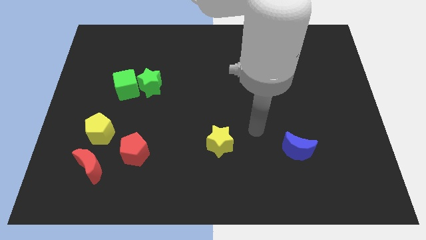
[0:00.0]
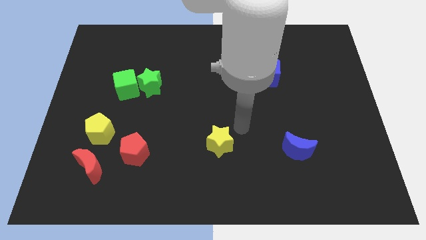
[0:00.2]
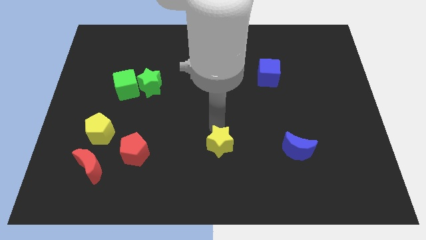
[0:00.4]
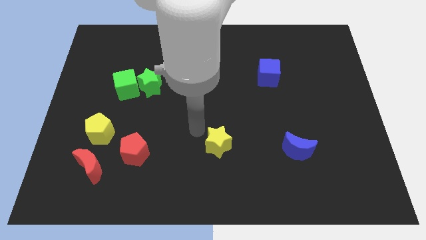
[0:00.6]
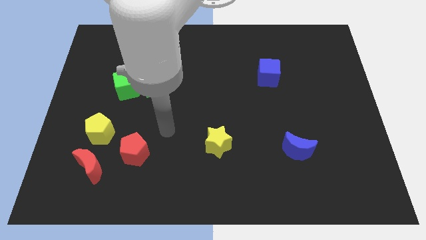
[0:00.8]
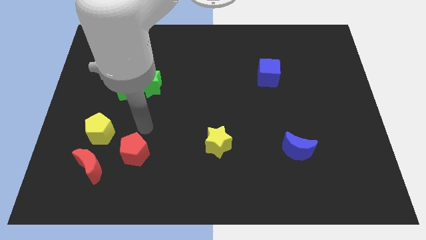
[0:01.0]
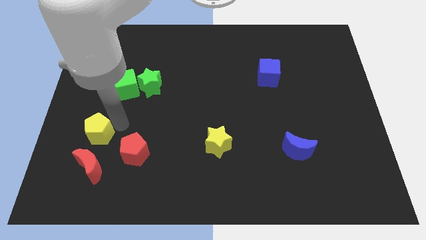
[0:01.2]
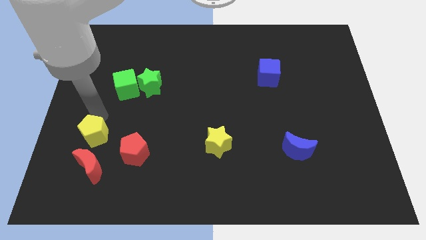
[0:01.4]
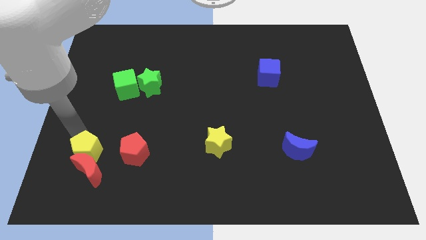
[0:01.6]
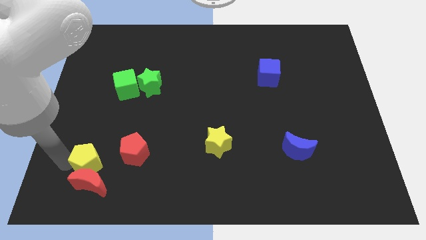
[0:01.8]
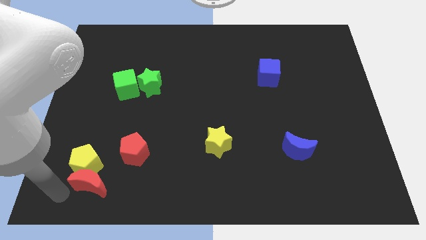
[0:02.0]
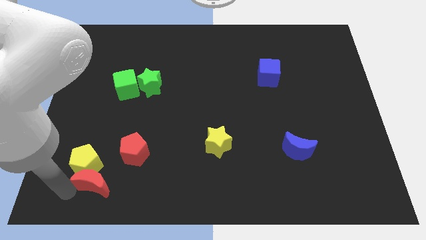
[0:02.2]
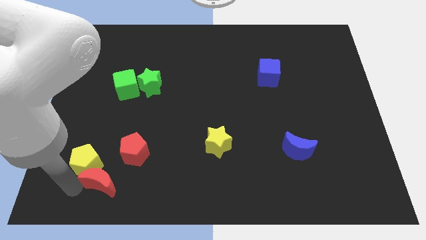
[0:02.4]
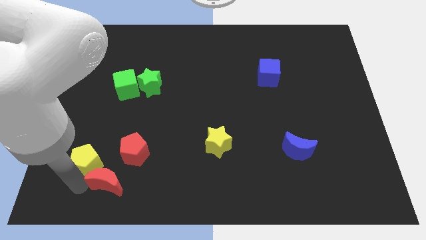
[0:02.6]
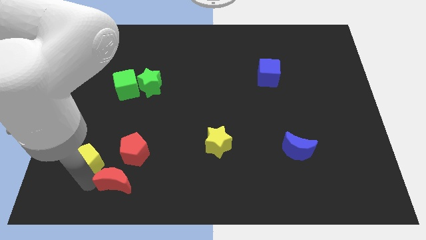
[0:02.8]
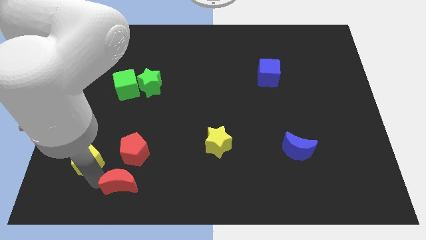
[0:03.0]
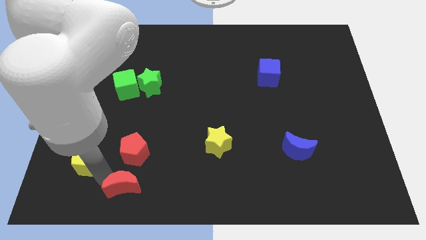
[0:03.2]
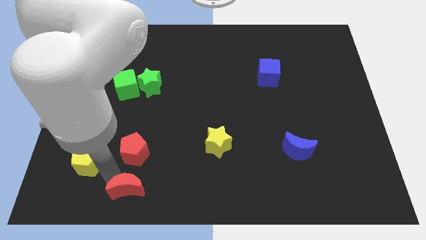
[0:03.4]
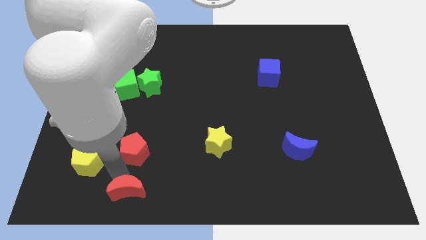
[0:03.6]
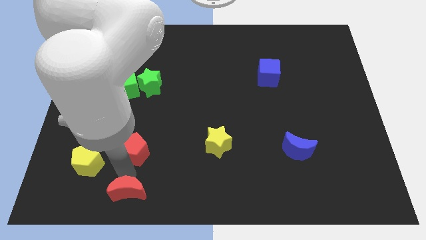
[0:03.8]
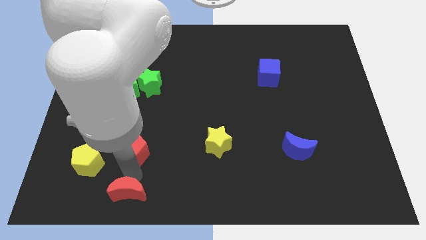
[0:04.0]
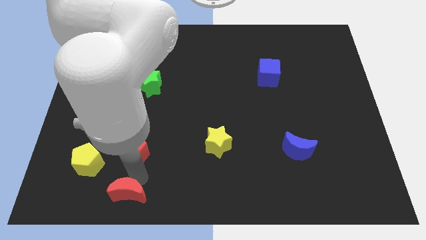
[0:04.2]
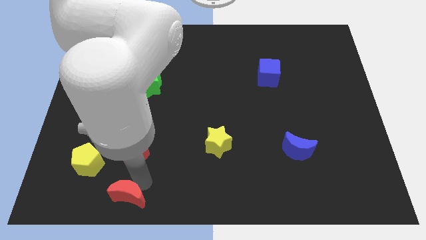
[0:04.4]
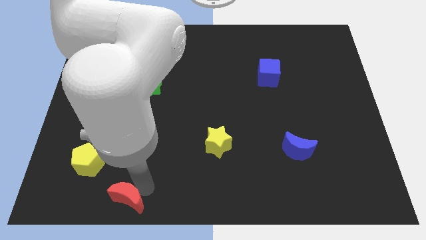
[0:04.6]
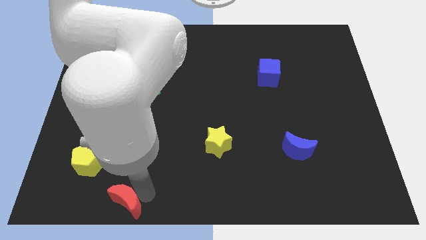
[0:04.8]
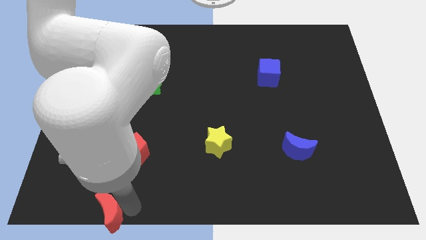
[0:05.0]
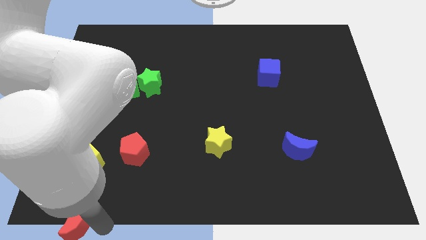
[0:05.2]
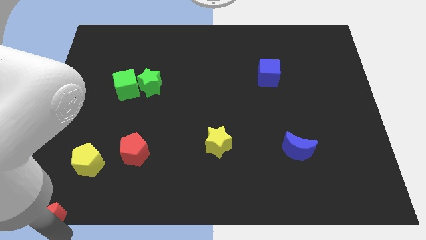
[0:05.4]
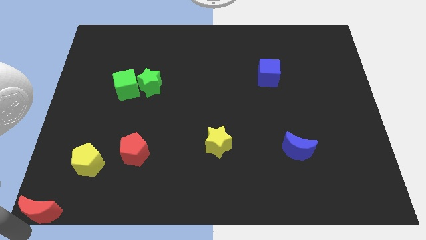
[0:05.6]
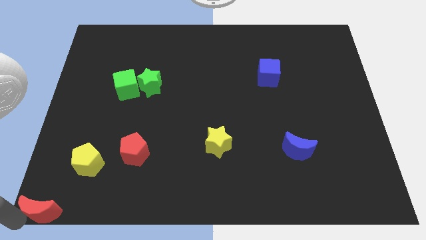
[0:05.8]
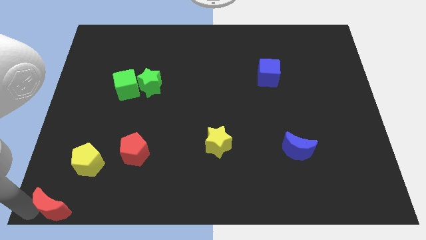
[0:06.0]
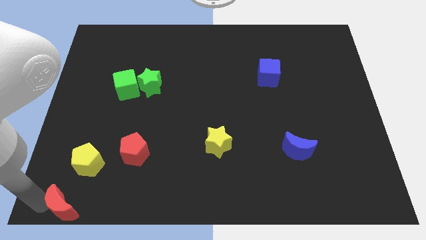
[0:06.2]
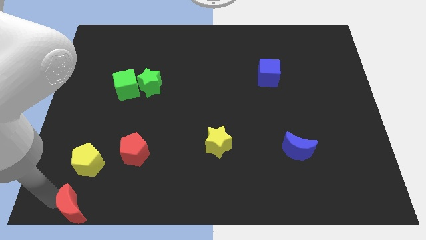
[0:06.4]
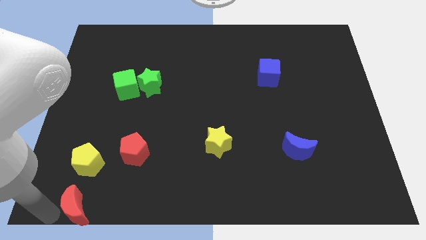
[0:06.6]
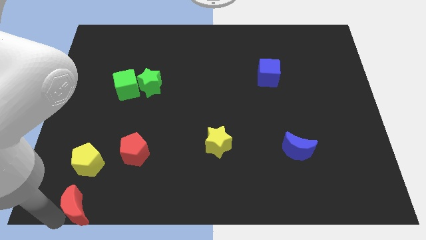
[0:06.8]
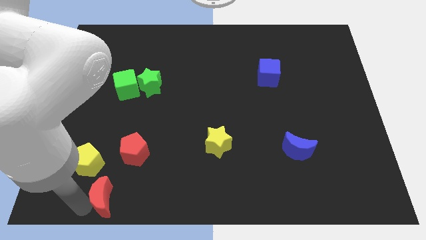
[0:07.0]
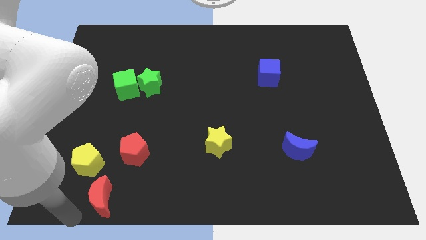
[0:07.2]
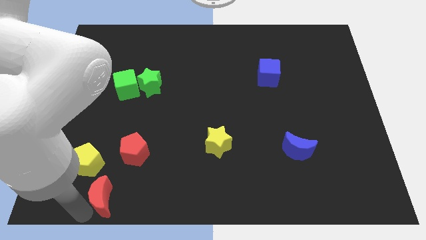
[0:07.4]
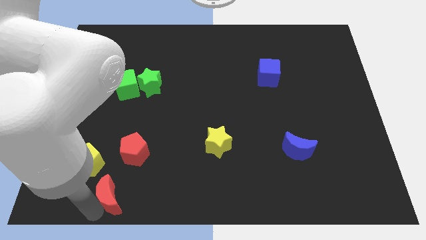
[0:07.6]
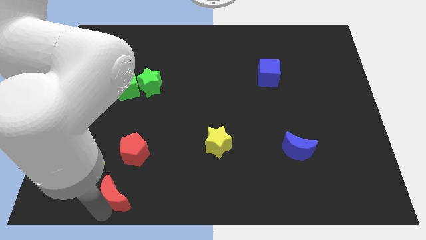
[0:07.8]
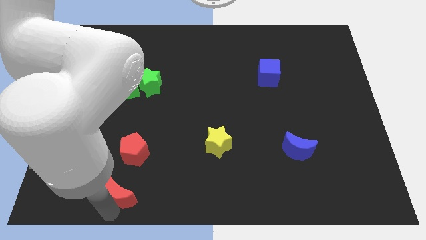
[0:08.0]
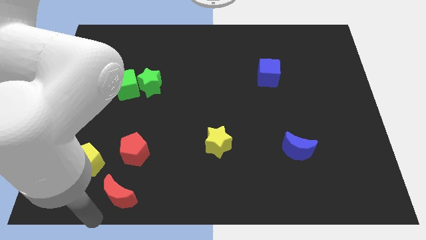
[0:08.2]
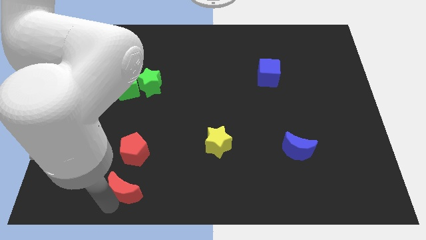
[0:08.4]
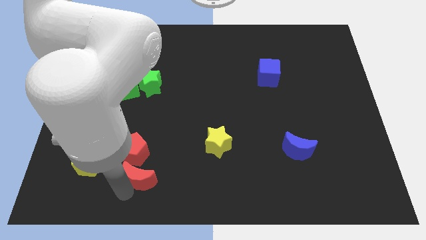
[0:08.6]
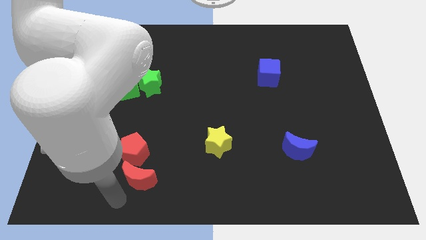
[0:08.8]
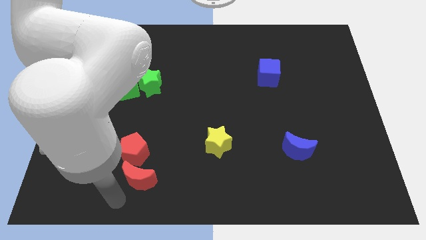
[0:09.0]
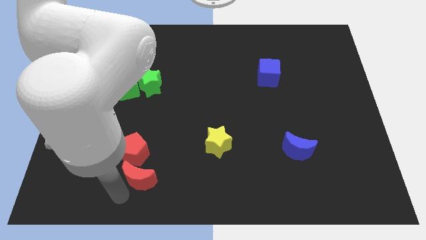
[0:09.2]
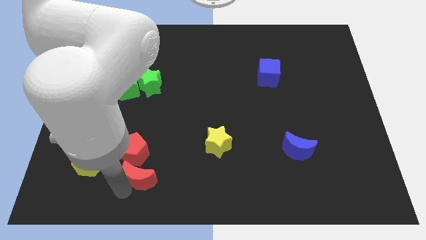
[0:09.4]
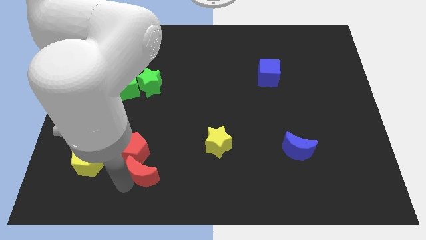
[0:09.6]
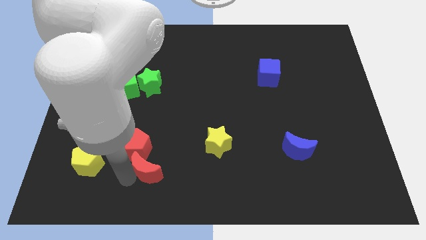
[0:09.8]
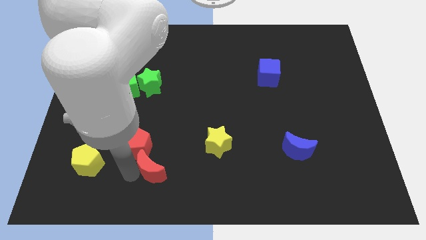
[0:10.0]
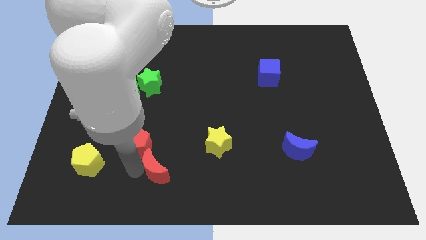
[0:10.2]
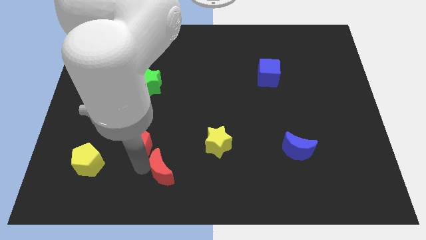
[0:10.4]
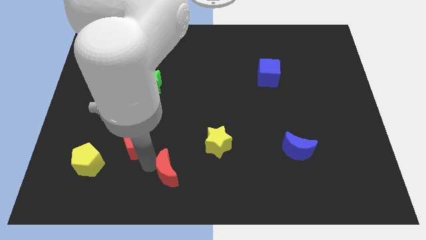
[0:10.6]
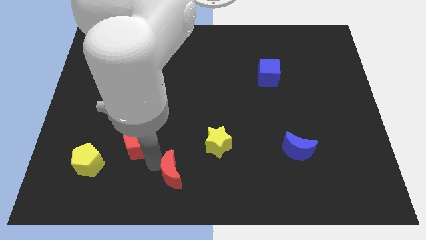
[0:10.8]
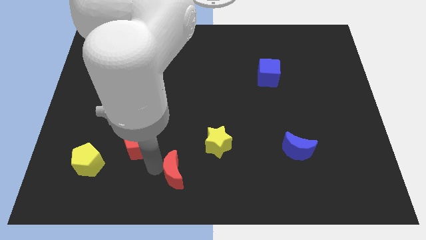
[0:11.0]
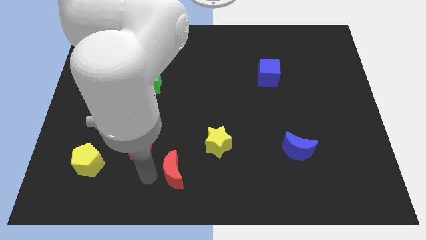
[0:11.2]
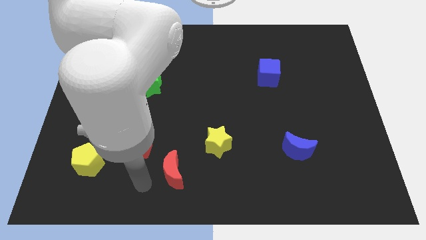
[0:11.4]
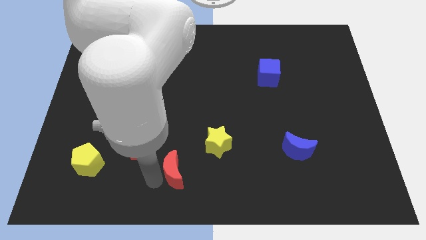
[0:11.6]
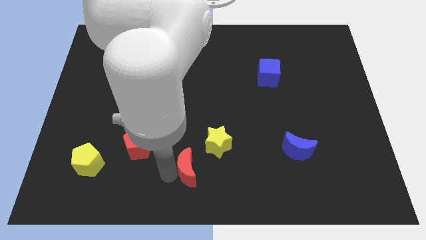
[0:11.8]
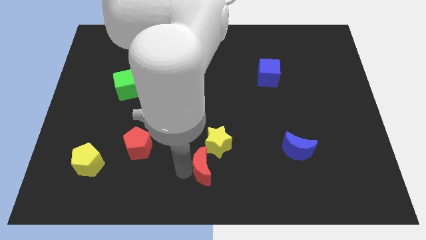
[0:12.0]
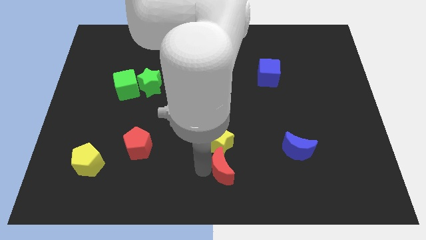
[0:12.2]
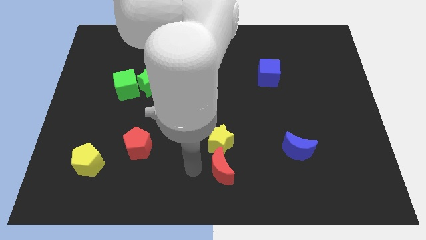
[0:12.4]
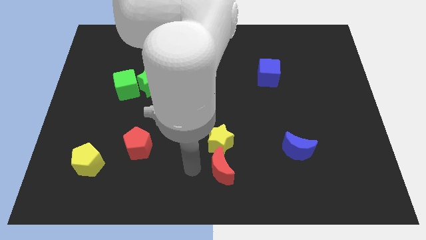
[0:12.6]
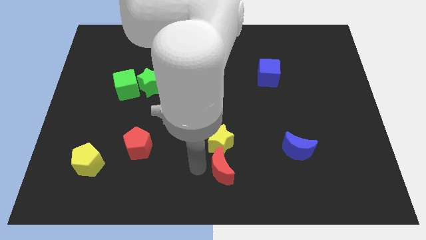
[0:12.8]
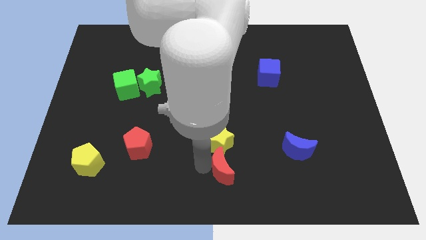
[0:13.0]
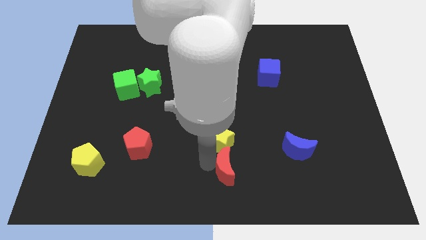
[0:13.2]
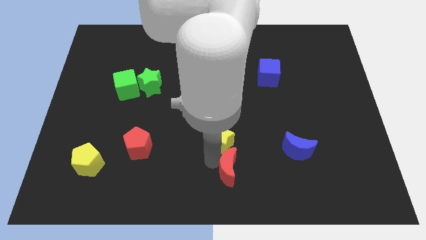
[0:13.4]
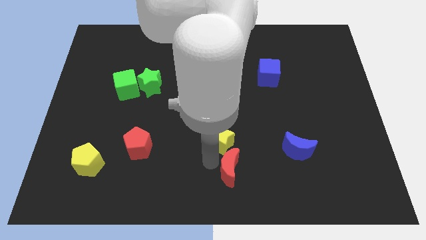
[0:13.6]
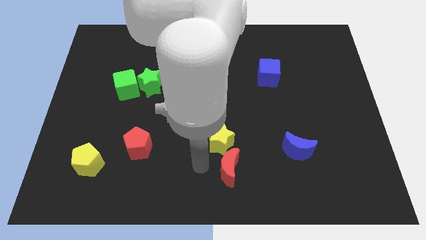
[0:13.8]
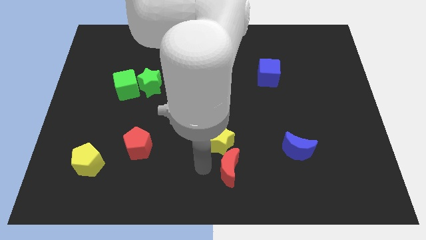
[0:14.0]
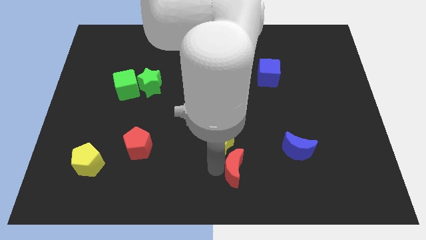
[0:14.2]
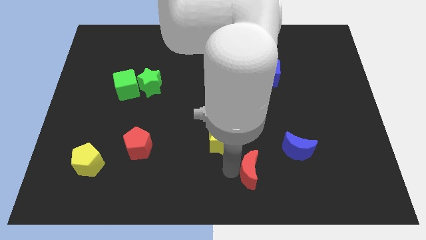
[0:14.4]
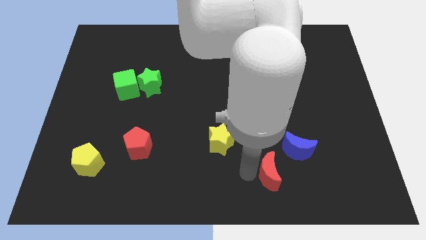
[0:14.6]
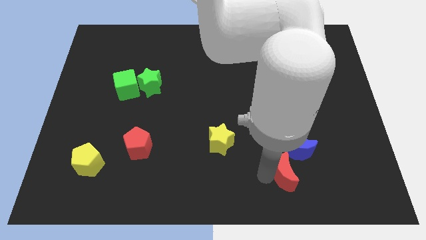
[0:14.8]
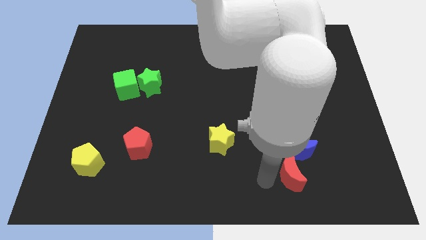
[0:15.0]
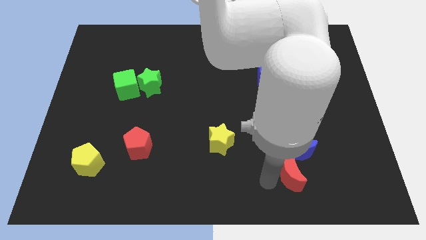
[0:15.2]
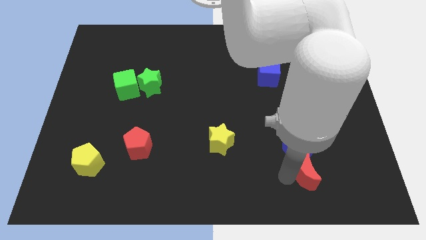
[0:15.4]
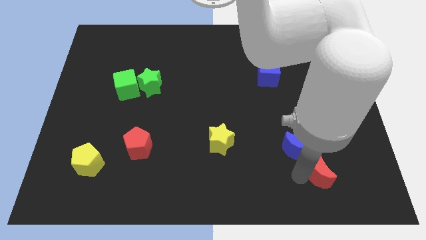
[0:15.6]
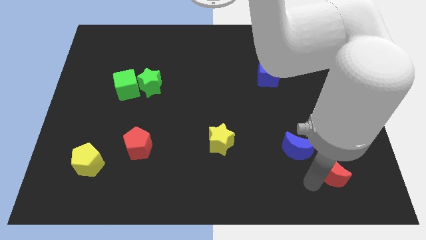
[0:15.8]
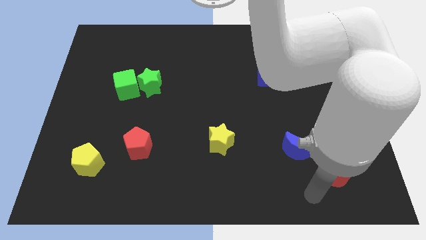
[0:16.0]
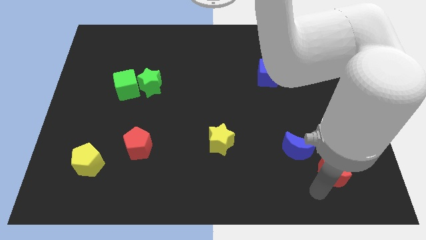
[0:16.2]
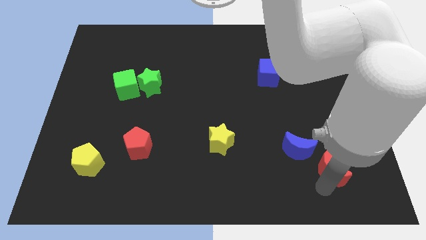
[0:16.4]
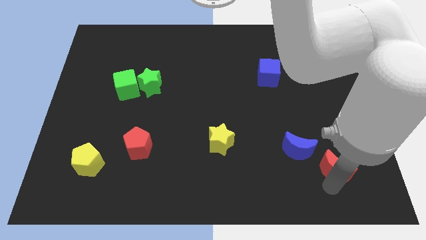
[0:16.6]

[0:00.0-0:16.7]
push the red moon right of the blue moon
